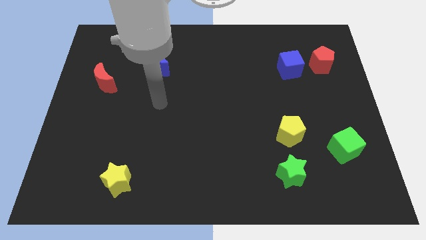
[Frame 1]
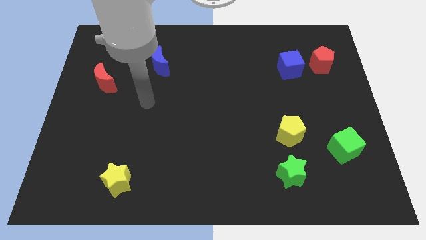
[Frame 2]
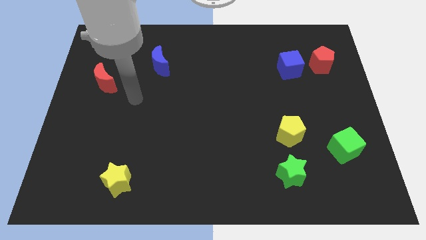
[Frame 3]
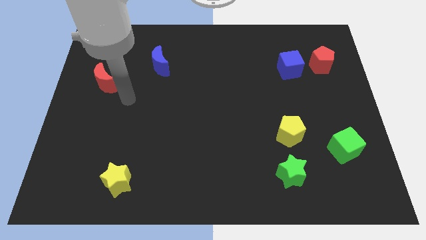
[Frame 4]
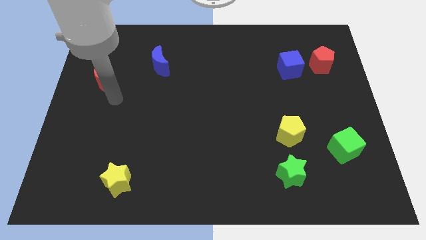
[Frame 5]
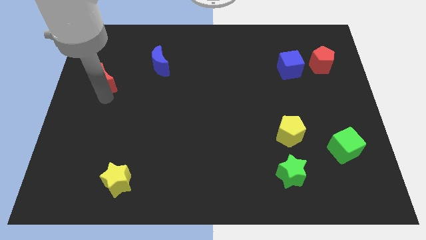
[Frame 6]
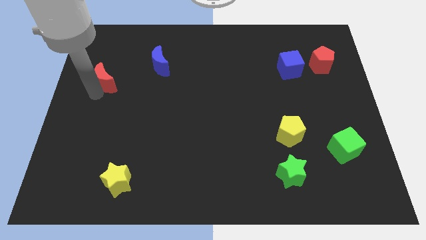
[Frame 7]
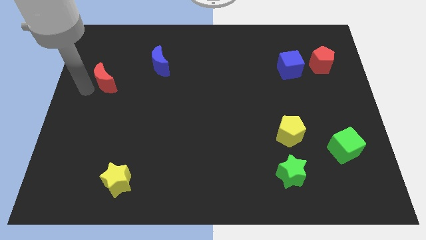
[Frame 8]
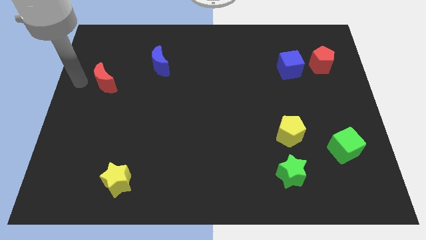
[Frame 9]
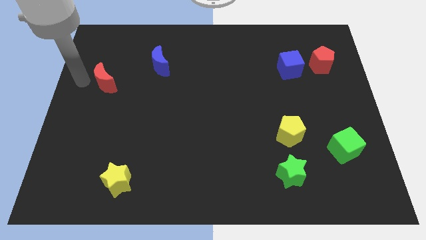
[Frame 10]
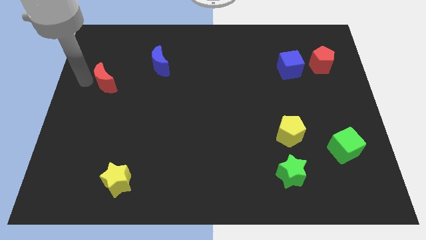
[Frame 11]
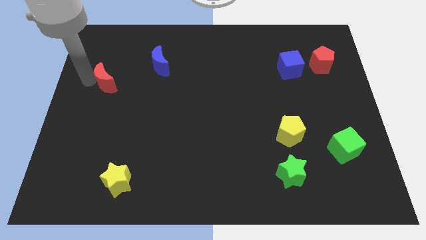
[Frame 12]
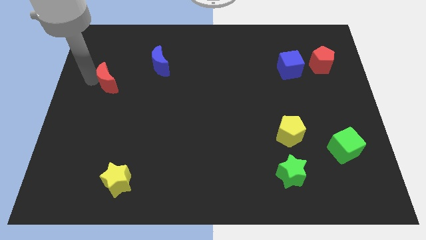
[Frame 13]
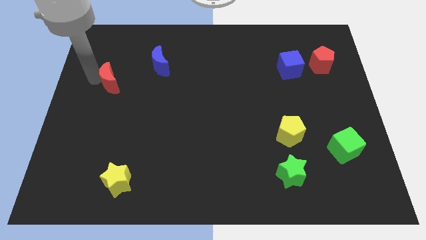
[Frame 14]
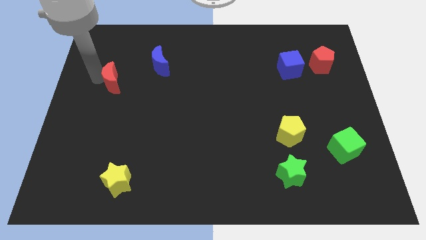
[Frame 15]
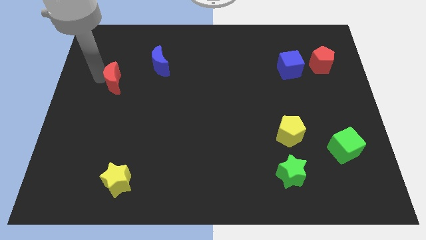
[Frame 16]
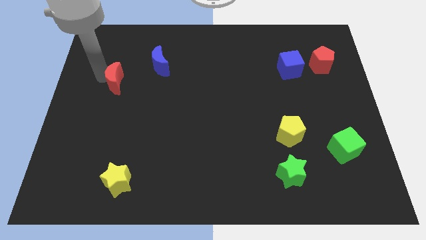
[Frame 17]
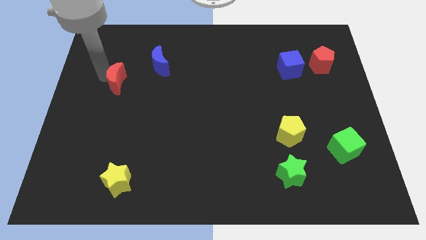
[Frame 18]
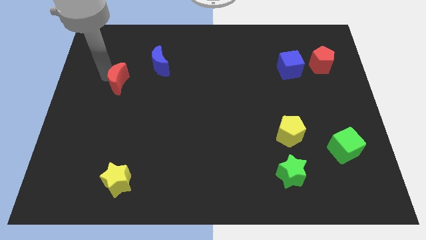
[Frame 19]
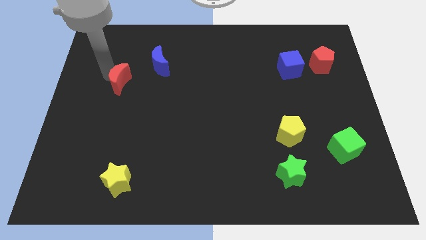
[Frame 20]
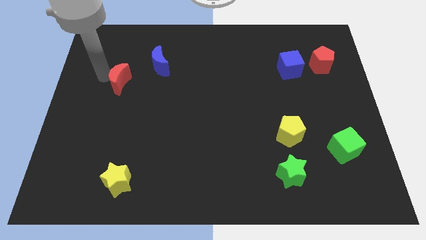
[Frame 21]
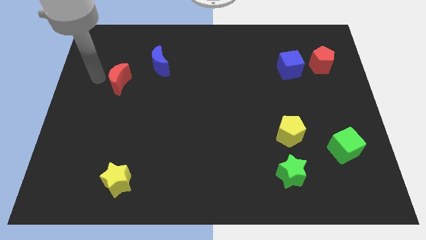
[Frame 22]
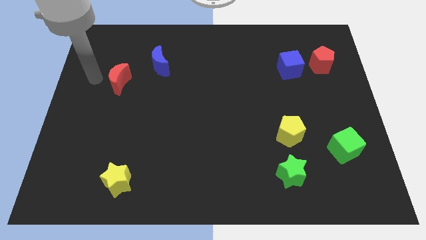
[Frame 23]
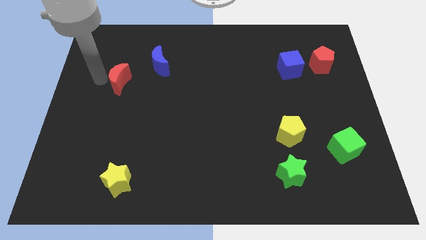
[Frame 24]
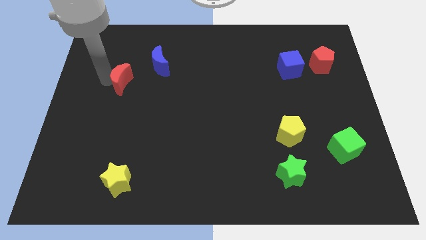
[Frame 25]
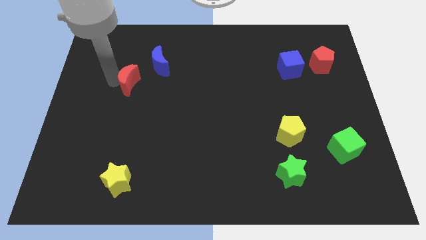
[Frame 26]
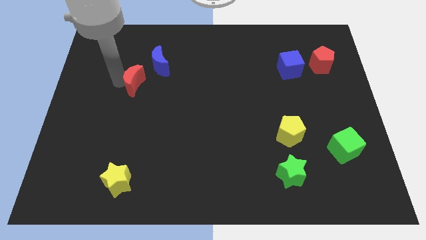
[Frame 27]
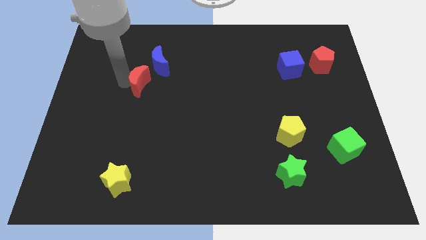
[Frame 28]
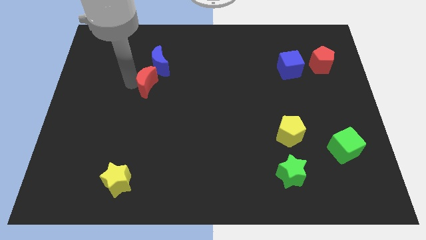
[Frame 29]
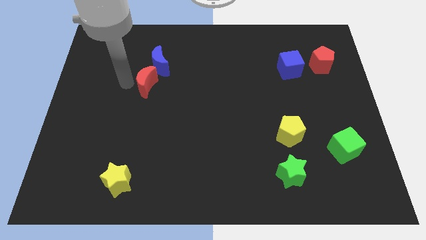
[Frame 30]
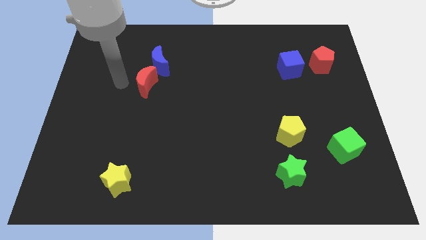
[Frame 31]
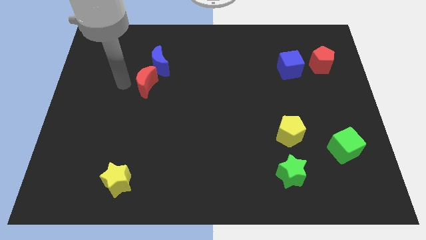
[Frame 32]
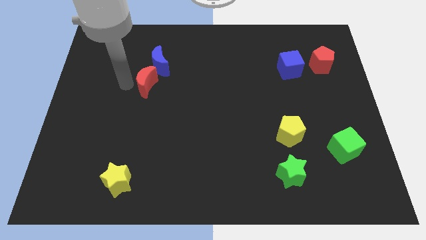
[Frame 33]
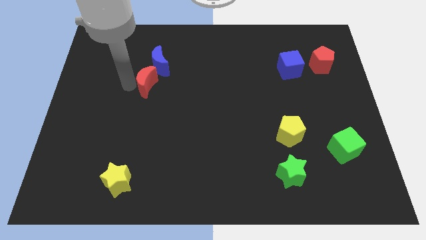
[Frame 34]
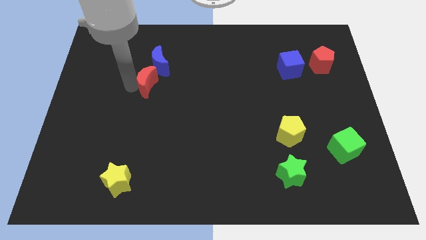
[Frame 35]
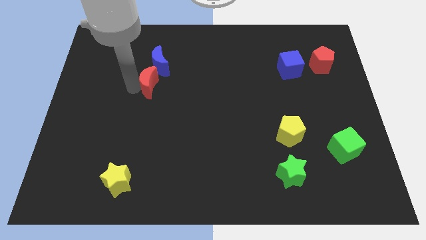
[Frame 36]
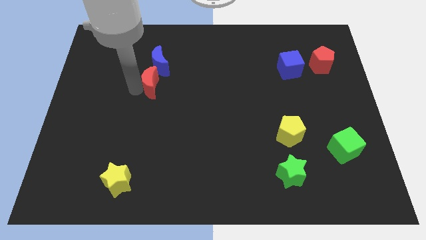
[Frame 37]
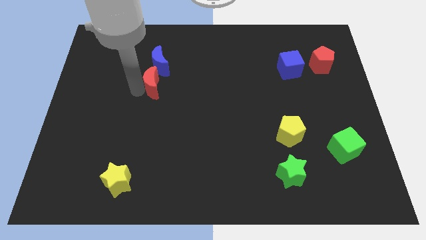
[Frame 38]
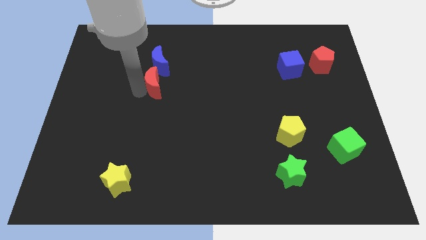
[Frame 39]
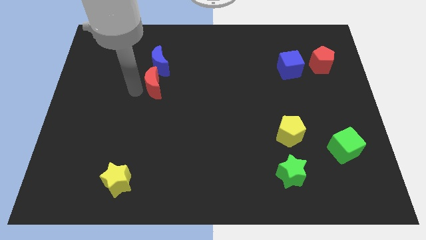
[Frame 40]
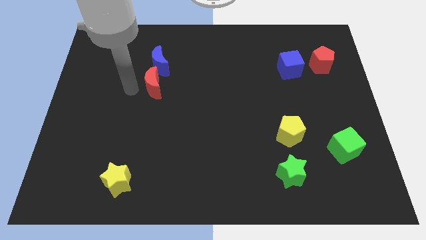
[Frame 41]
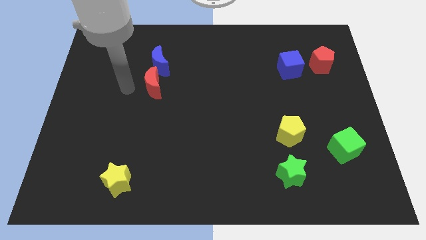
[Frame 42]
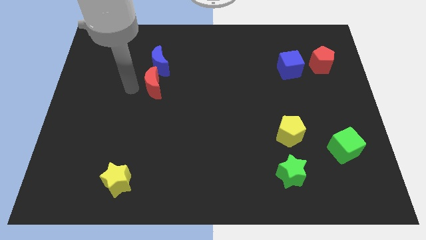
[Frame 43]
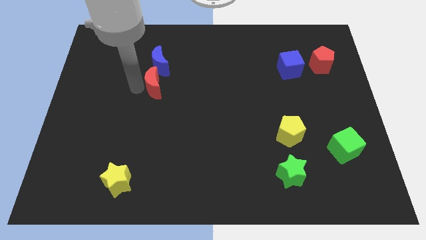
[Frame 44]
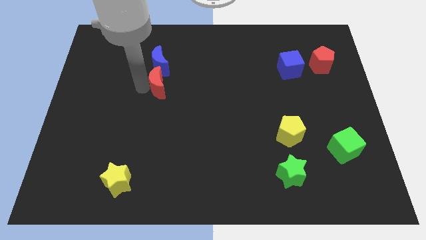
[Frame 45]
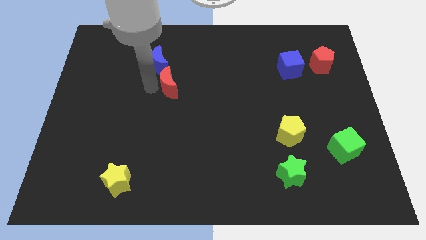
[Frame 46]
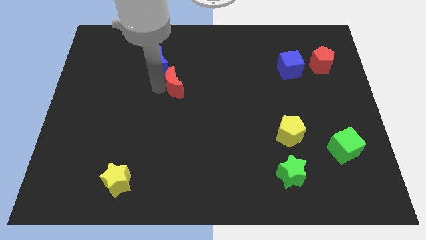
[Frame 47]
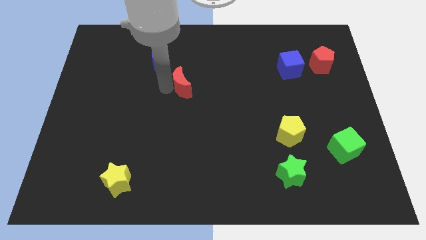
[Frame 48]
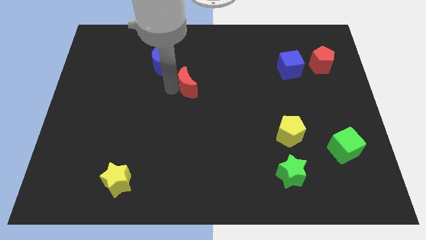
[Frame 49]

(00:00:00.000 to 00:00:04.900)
push the red moon to the right

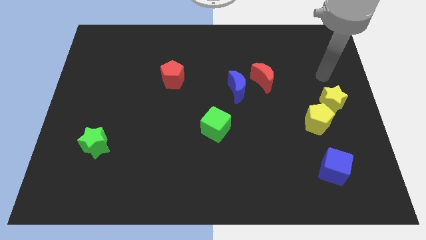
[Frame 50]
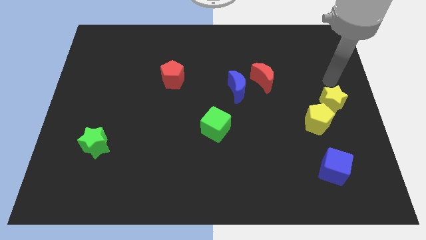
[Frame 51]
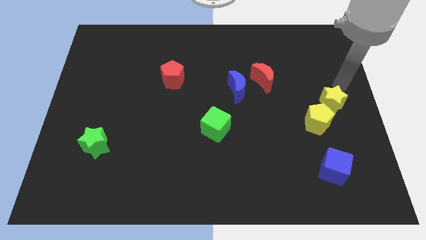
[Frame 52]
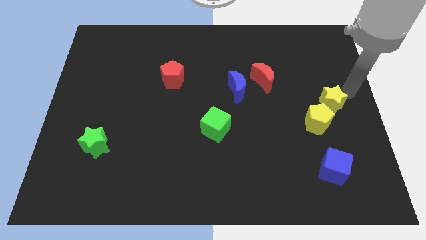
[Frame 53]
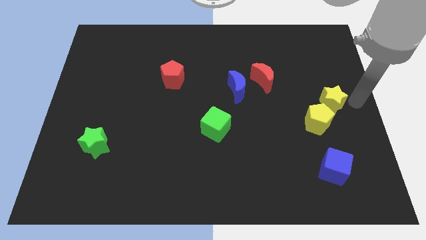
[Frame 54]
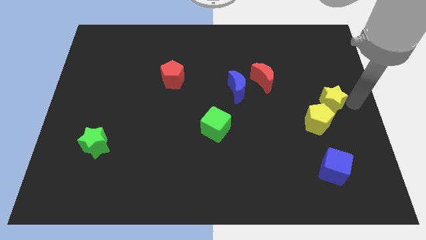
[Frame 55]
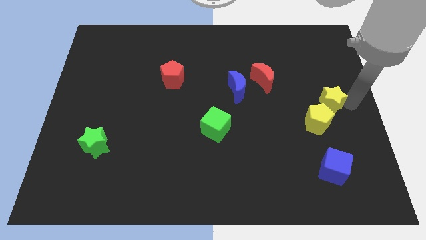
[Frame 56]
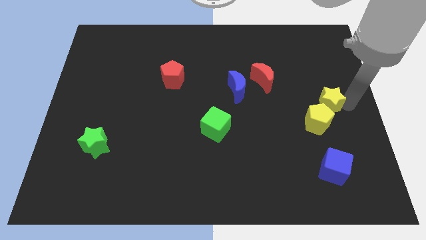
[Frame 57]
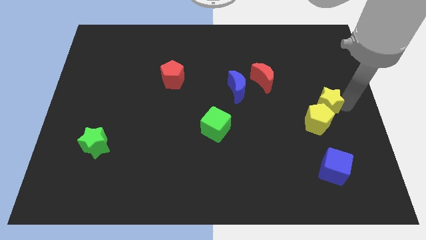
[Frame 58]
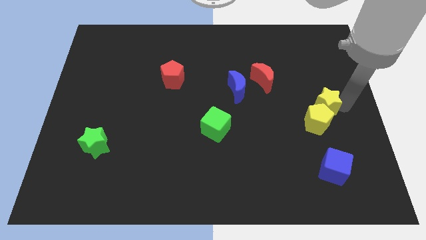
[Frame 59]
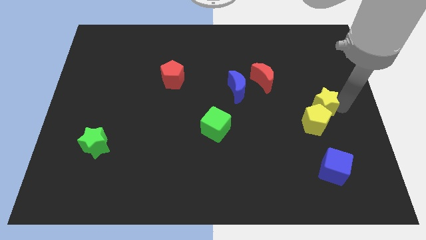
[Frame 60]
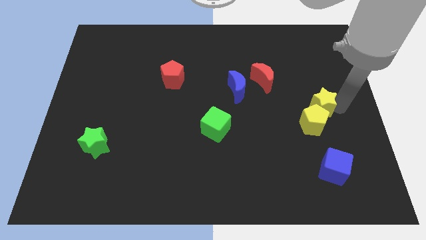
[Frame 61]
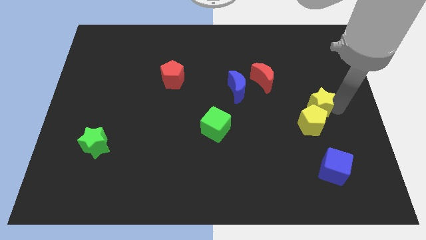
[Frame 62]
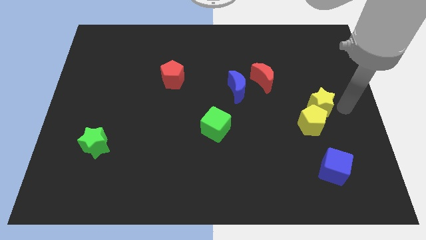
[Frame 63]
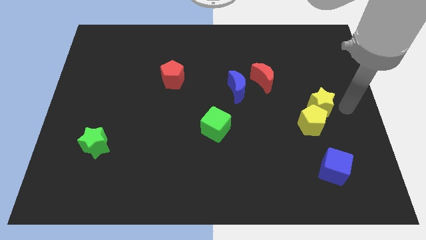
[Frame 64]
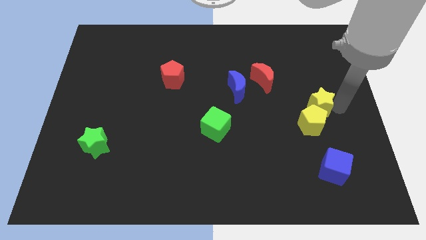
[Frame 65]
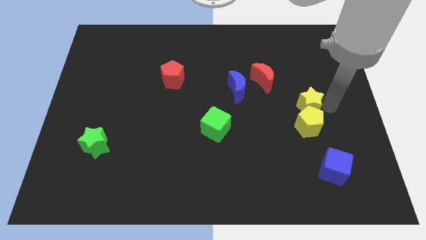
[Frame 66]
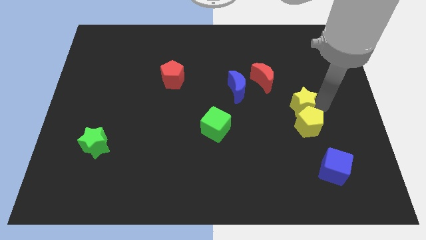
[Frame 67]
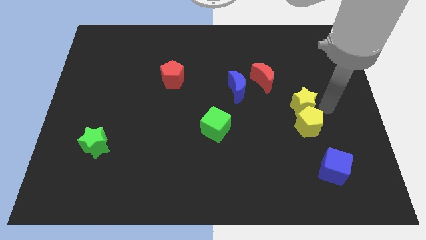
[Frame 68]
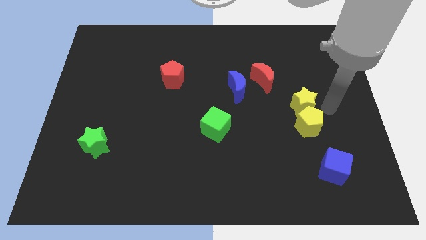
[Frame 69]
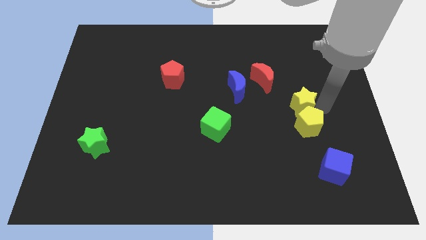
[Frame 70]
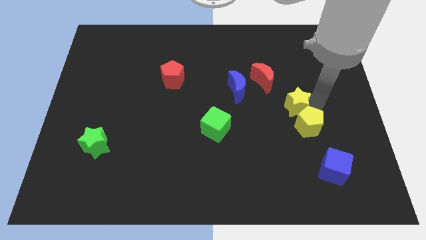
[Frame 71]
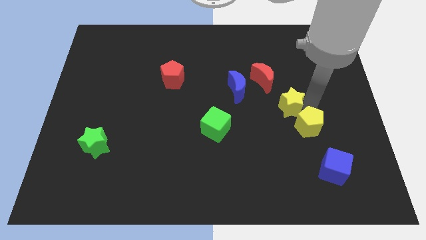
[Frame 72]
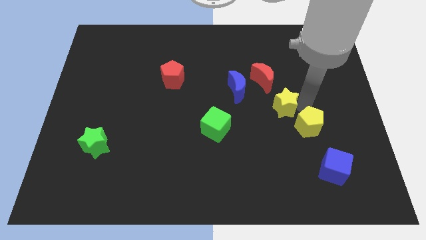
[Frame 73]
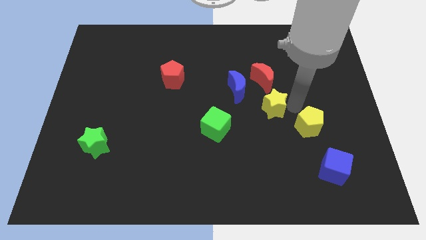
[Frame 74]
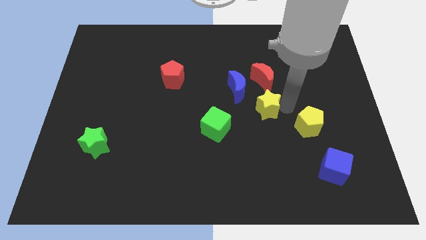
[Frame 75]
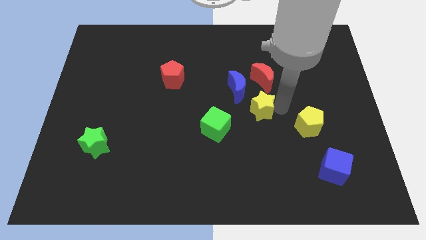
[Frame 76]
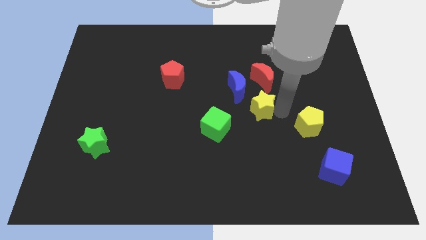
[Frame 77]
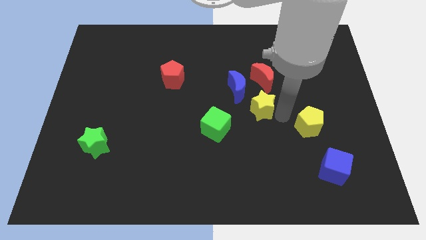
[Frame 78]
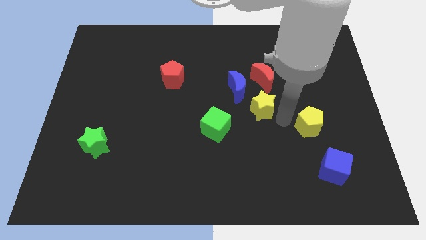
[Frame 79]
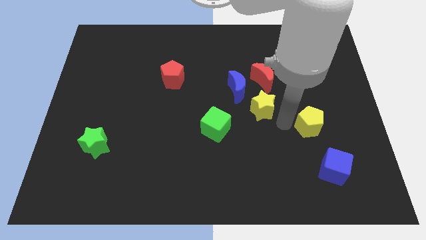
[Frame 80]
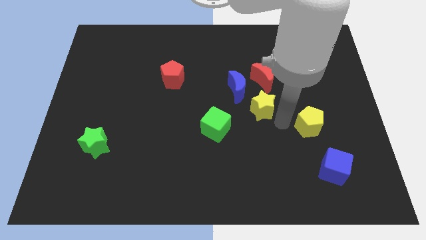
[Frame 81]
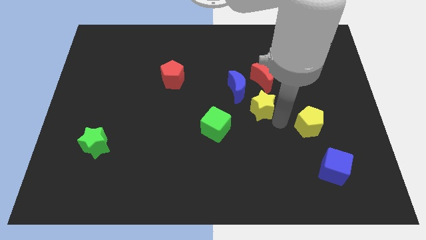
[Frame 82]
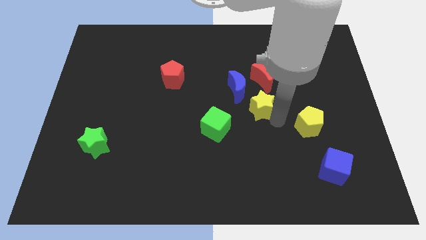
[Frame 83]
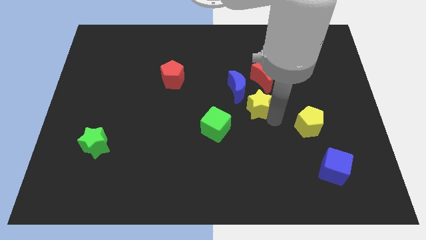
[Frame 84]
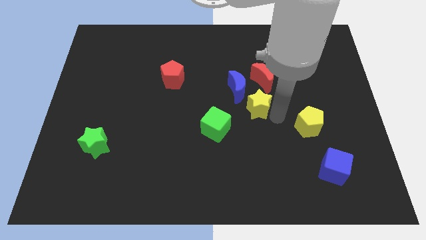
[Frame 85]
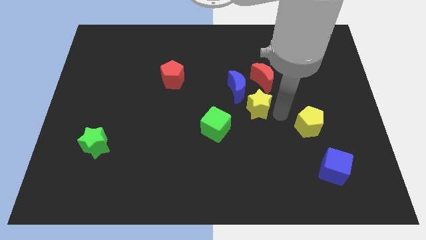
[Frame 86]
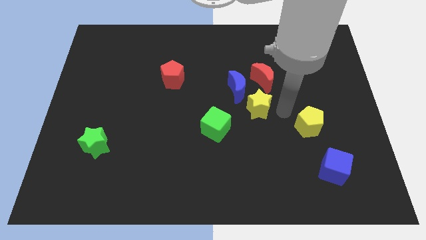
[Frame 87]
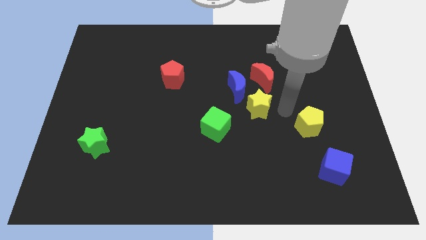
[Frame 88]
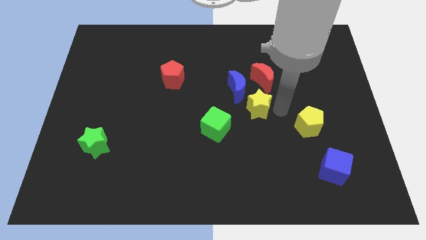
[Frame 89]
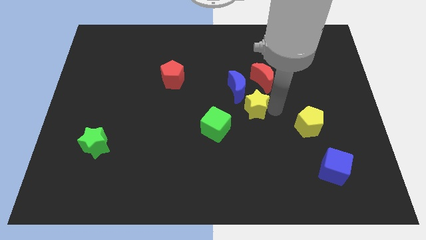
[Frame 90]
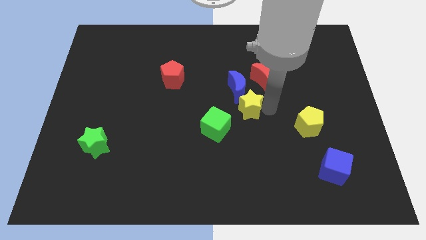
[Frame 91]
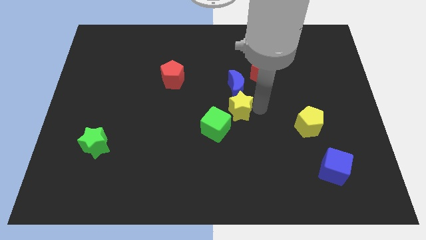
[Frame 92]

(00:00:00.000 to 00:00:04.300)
move the yellow star to the left
